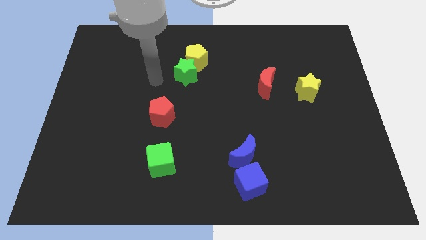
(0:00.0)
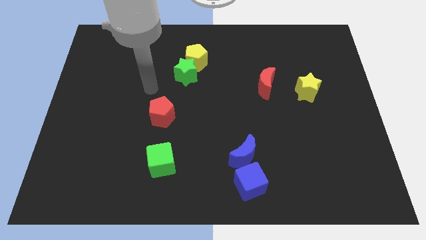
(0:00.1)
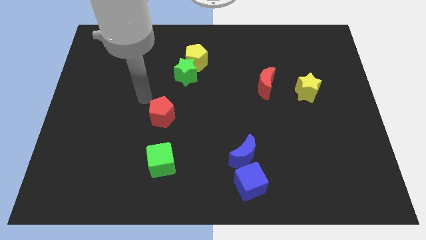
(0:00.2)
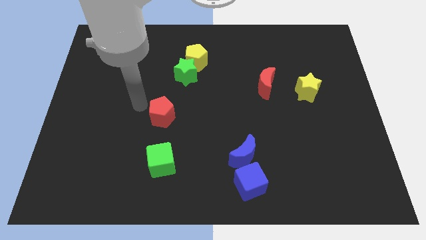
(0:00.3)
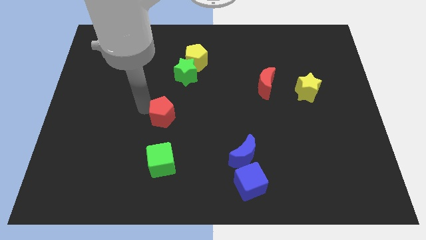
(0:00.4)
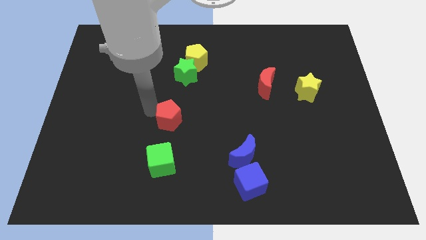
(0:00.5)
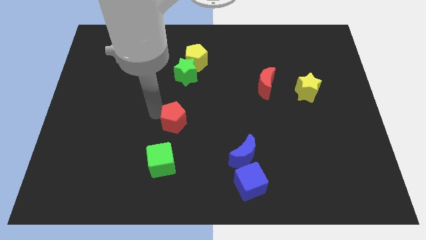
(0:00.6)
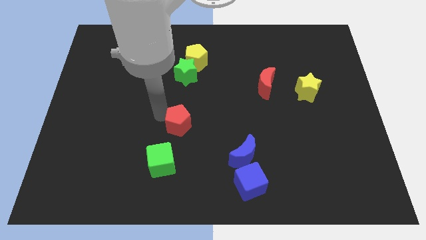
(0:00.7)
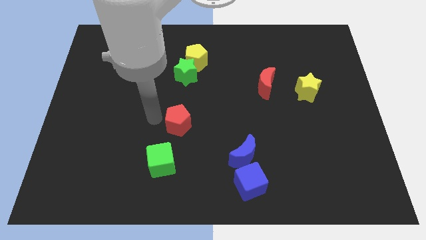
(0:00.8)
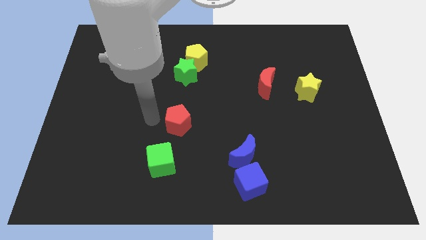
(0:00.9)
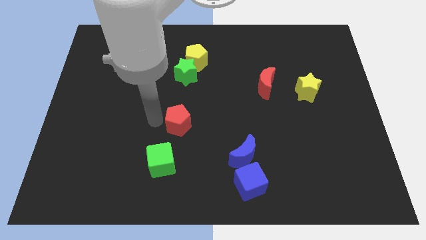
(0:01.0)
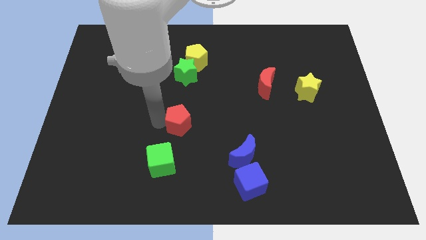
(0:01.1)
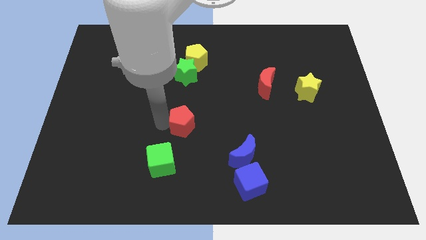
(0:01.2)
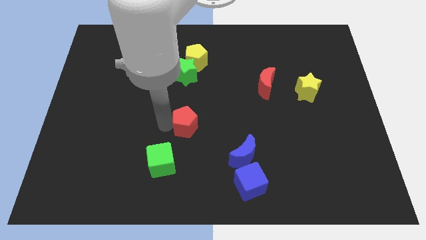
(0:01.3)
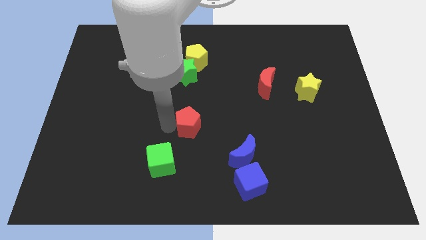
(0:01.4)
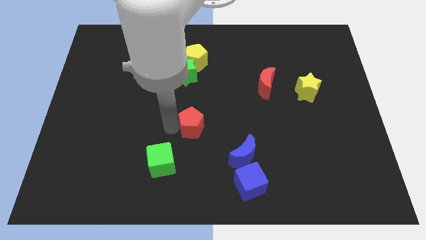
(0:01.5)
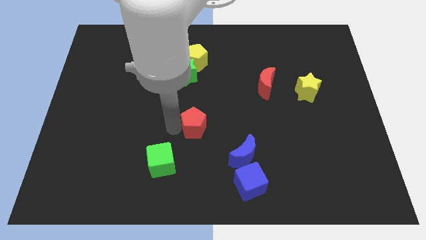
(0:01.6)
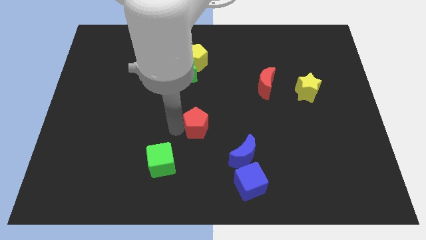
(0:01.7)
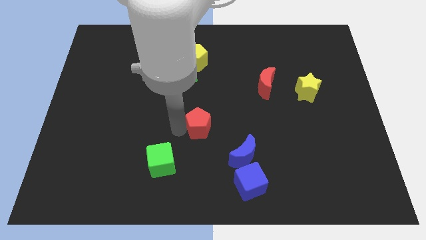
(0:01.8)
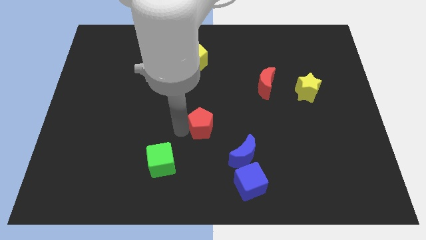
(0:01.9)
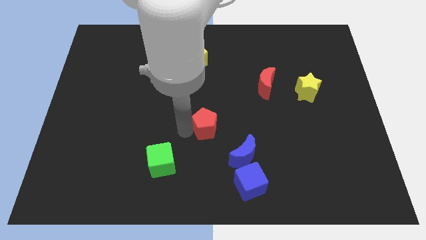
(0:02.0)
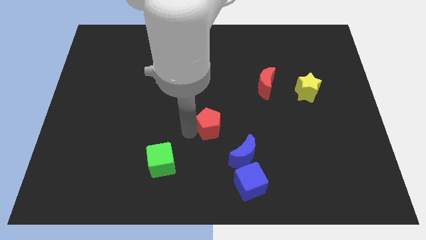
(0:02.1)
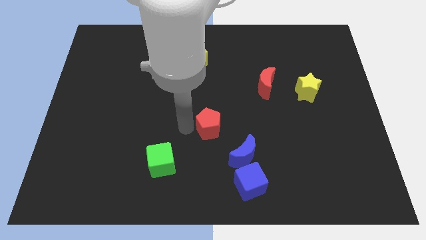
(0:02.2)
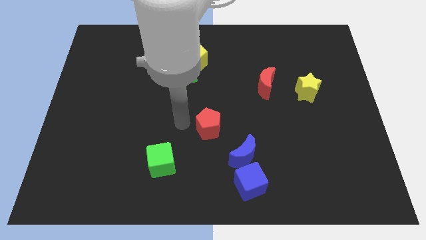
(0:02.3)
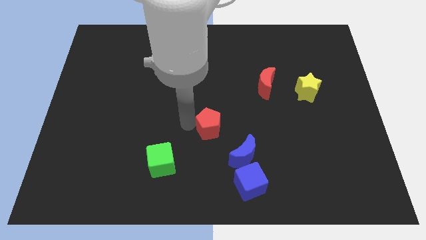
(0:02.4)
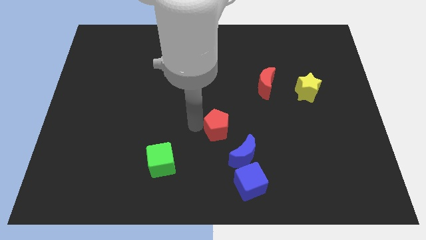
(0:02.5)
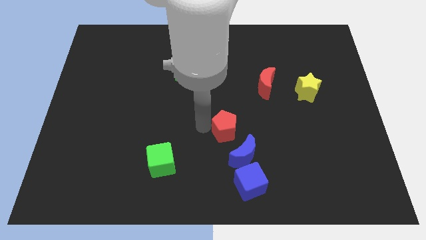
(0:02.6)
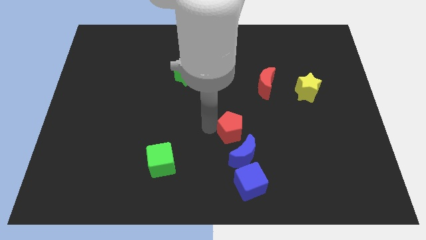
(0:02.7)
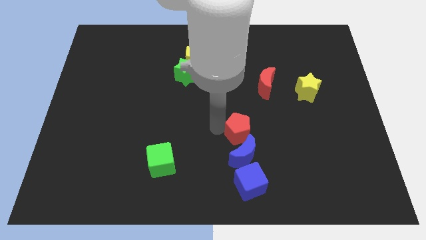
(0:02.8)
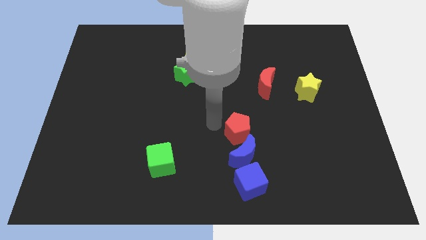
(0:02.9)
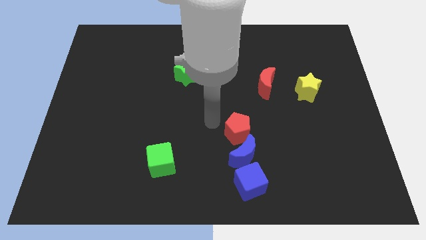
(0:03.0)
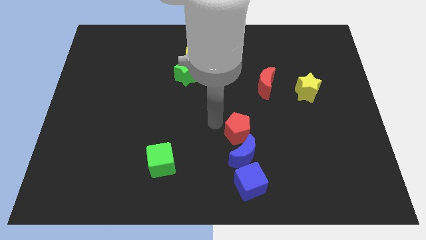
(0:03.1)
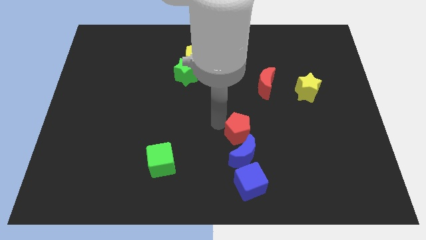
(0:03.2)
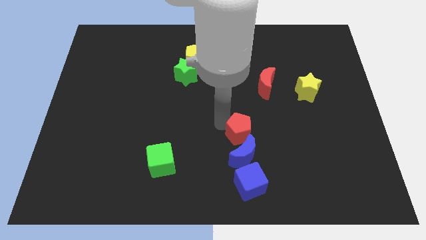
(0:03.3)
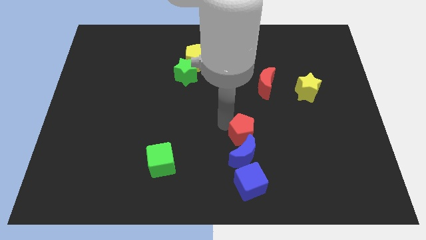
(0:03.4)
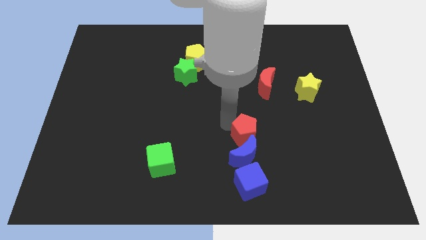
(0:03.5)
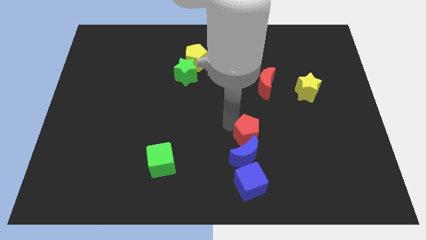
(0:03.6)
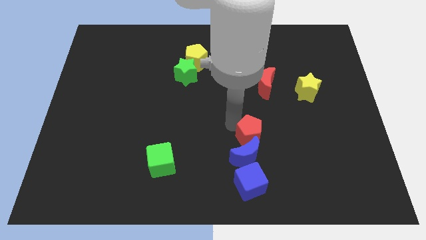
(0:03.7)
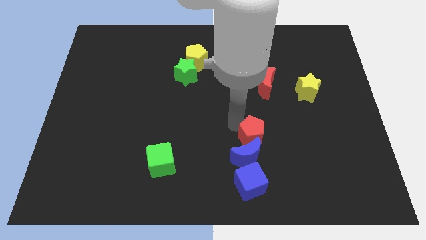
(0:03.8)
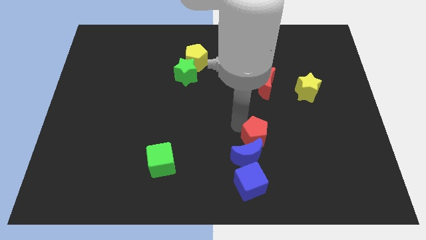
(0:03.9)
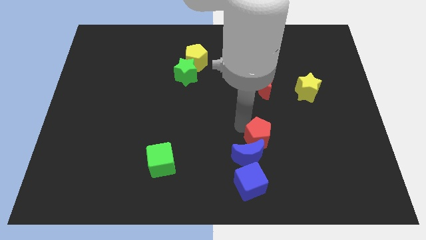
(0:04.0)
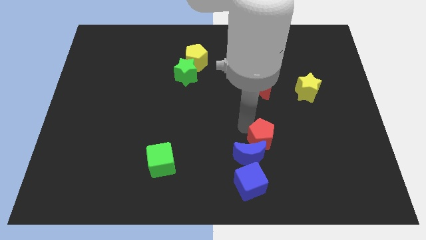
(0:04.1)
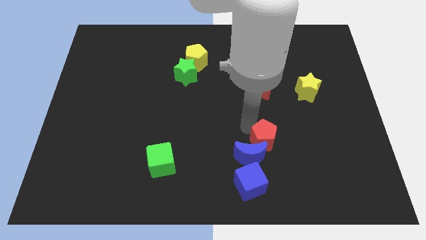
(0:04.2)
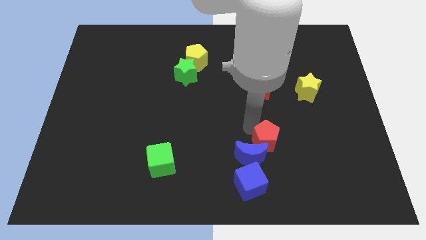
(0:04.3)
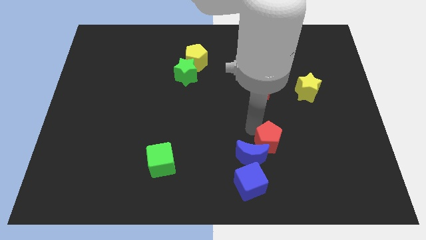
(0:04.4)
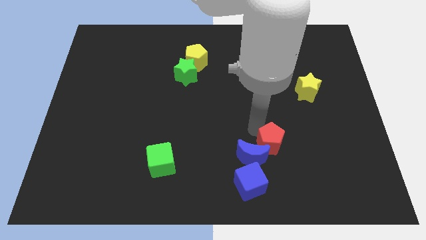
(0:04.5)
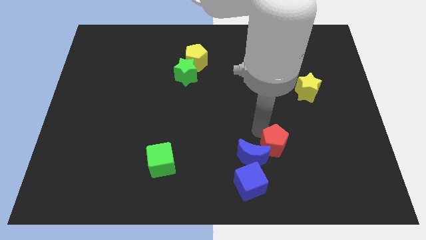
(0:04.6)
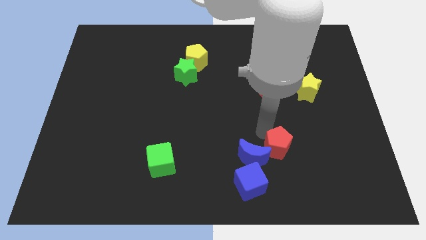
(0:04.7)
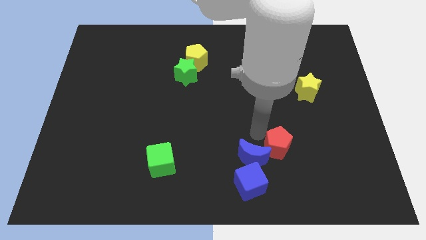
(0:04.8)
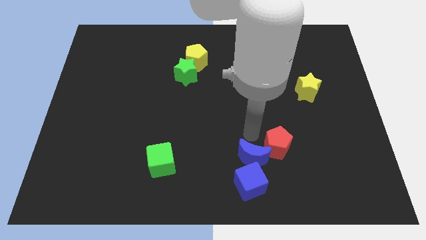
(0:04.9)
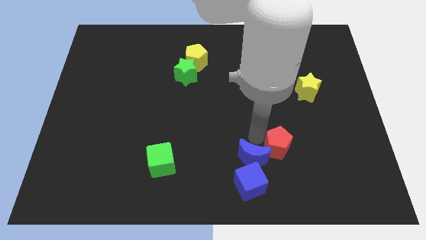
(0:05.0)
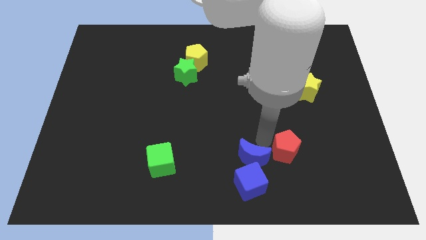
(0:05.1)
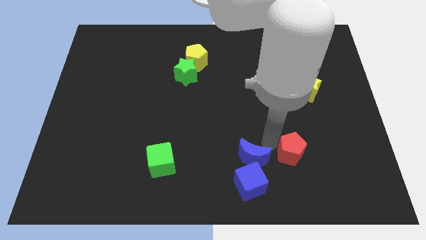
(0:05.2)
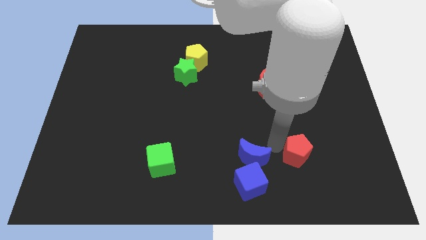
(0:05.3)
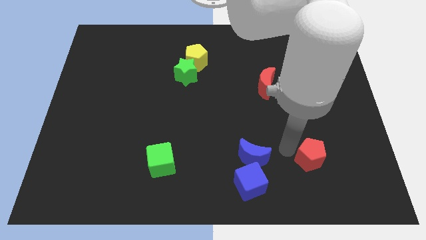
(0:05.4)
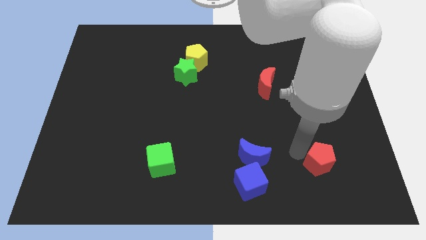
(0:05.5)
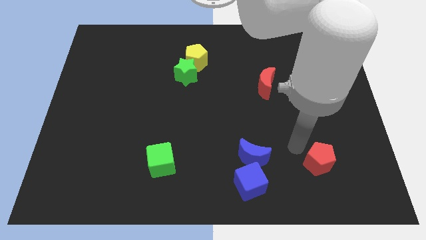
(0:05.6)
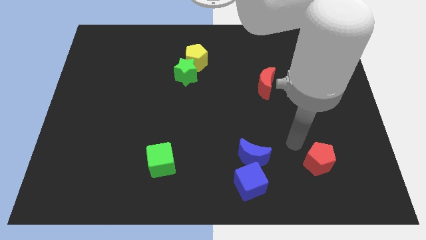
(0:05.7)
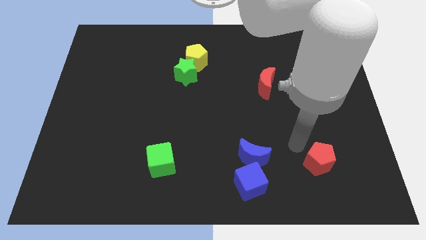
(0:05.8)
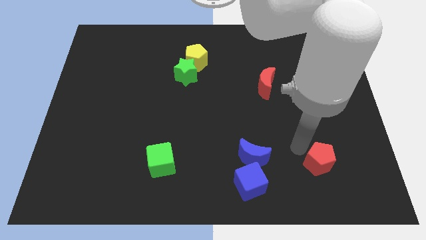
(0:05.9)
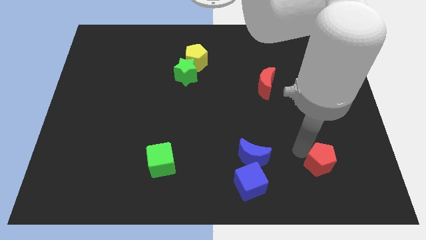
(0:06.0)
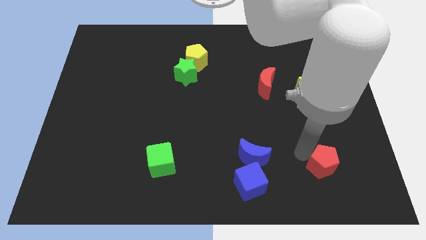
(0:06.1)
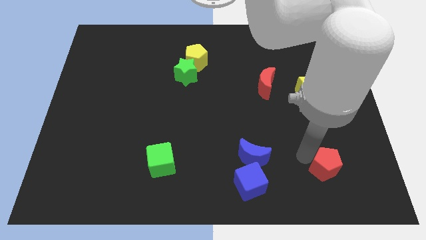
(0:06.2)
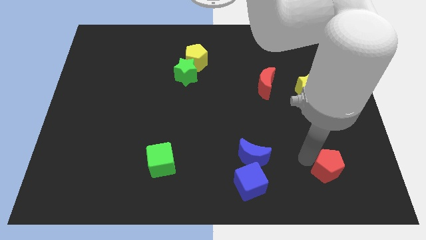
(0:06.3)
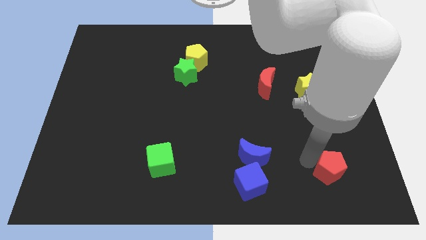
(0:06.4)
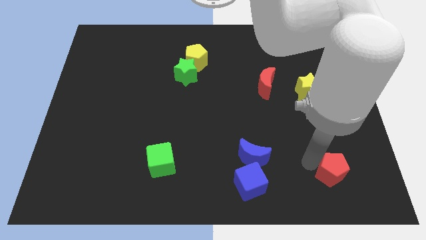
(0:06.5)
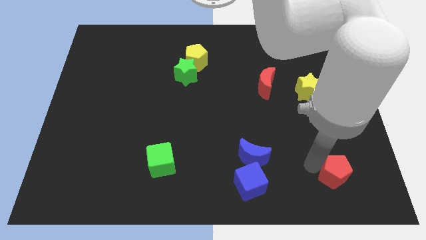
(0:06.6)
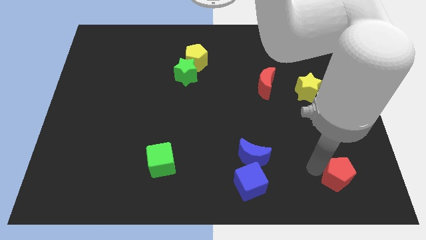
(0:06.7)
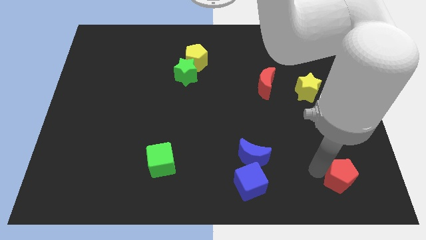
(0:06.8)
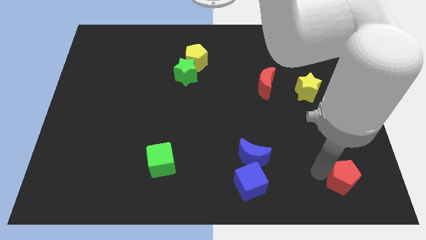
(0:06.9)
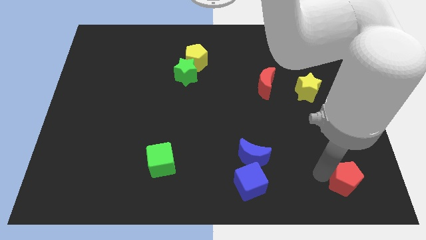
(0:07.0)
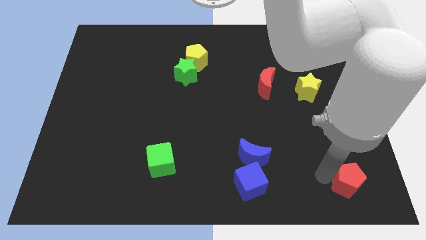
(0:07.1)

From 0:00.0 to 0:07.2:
slide the red pentagon to the bottom right of the board
